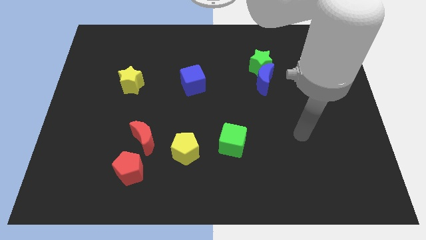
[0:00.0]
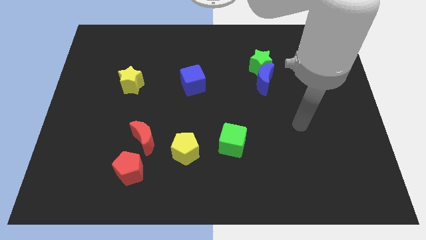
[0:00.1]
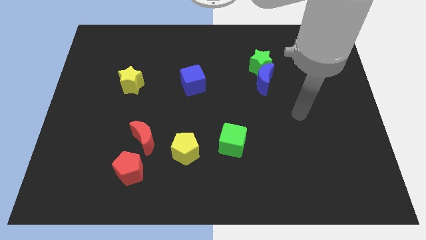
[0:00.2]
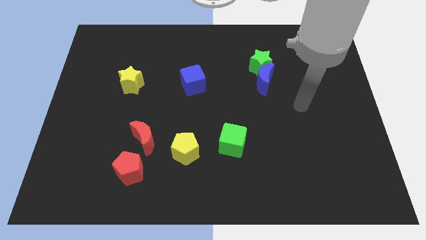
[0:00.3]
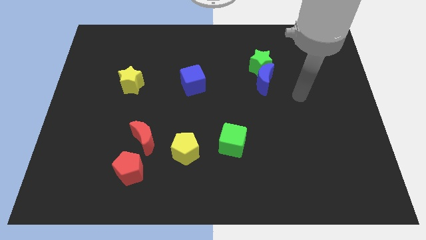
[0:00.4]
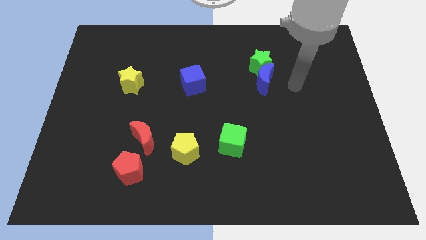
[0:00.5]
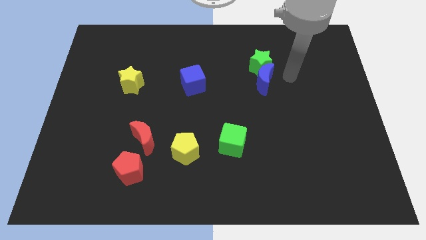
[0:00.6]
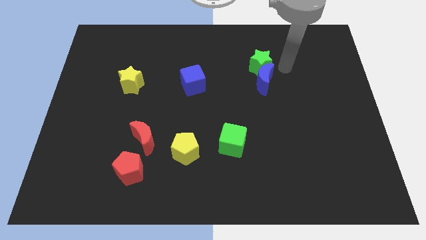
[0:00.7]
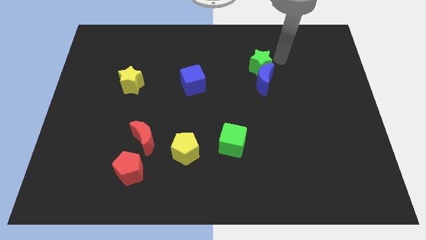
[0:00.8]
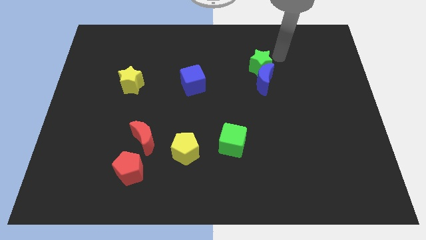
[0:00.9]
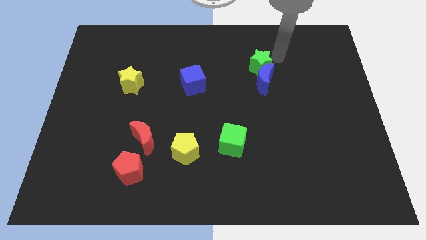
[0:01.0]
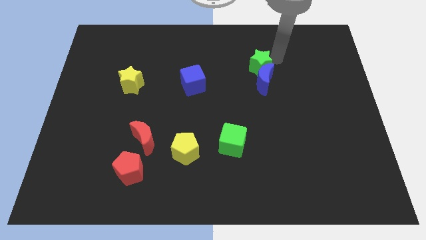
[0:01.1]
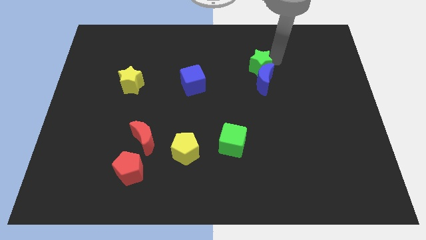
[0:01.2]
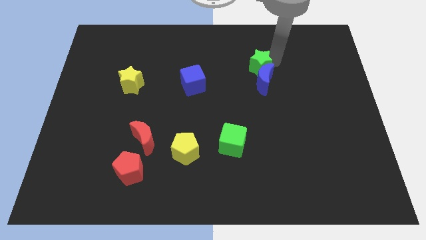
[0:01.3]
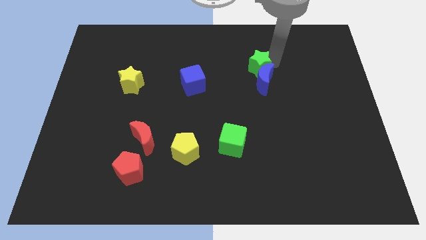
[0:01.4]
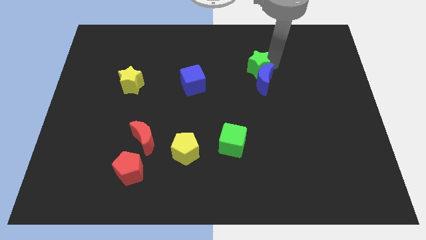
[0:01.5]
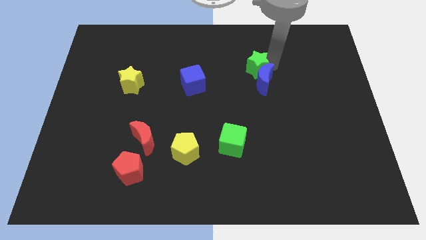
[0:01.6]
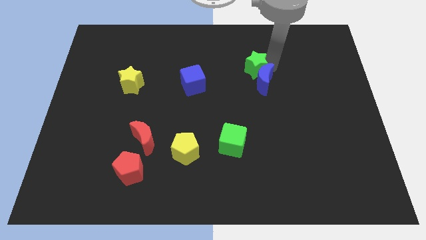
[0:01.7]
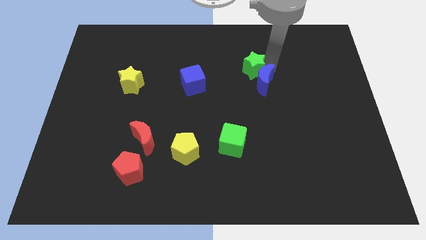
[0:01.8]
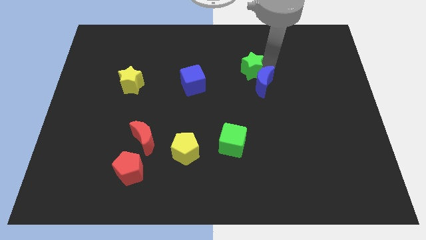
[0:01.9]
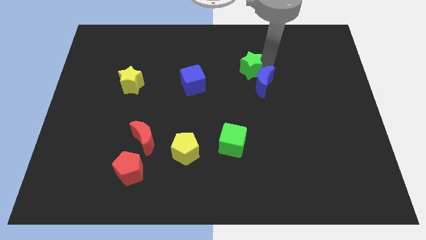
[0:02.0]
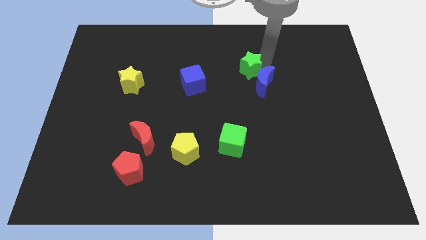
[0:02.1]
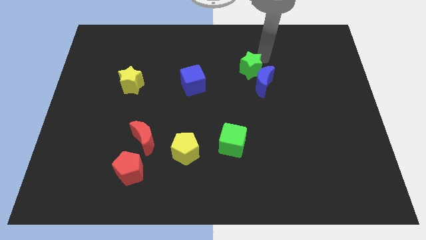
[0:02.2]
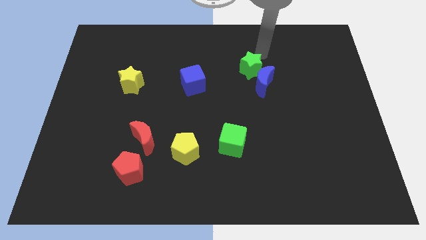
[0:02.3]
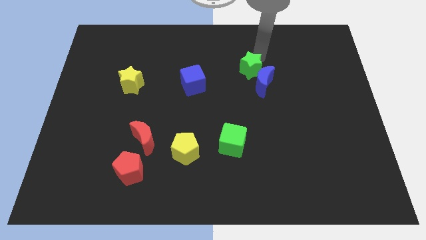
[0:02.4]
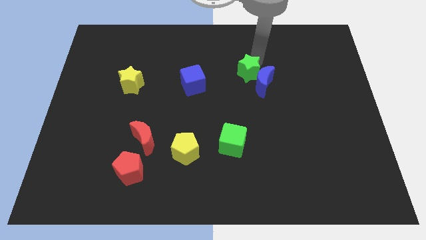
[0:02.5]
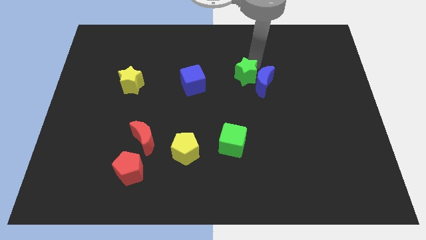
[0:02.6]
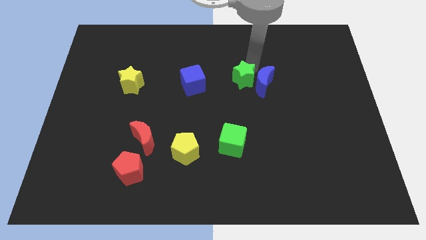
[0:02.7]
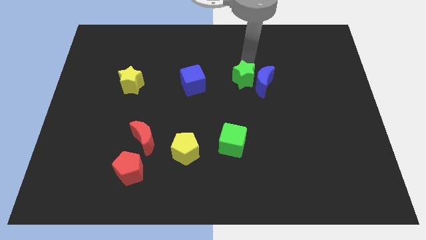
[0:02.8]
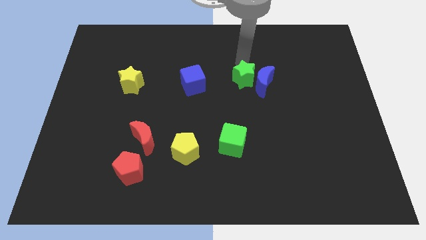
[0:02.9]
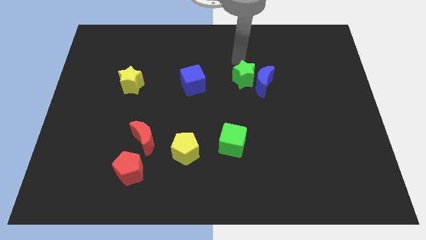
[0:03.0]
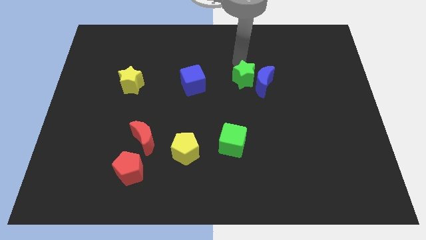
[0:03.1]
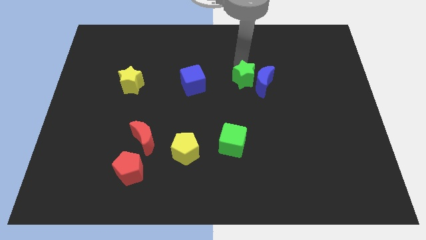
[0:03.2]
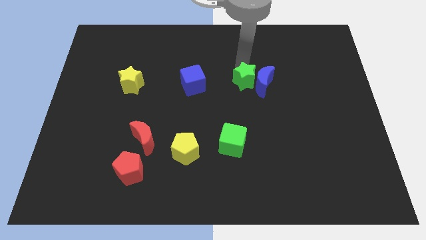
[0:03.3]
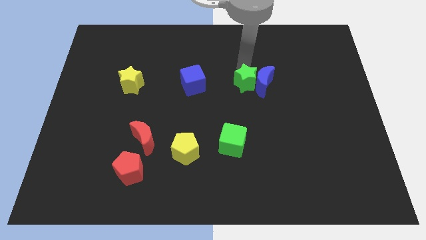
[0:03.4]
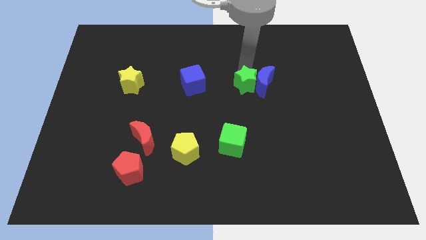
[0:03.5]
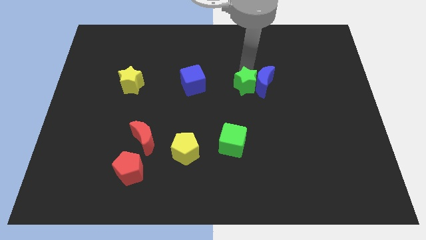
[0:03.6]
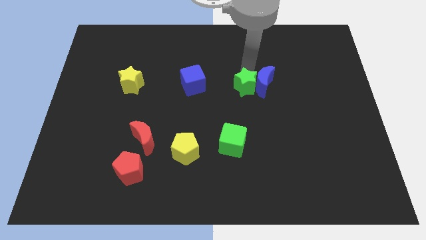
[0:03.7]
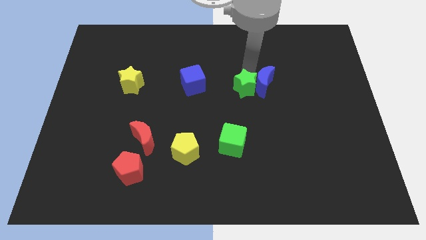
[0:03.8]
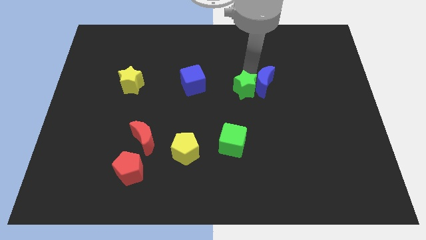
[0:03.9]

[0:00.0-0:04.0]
move the green star a little bit downwards

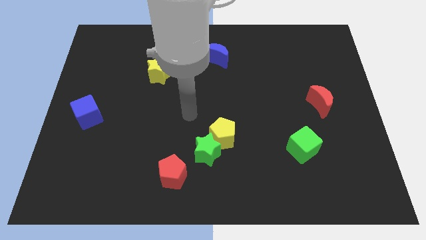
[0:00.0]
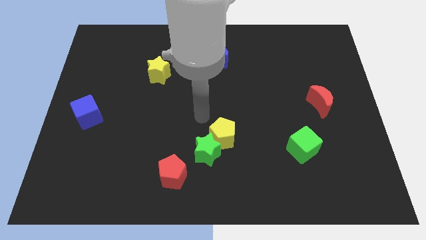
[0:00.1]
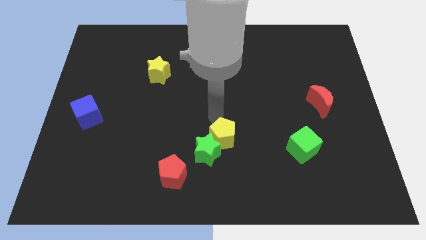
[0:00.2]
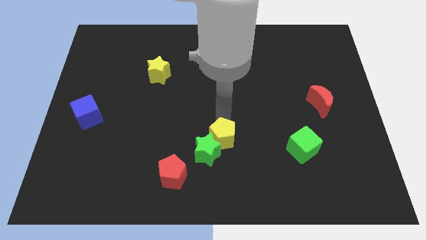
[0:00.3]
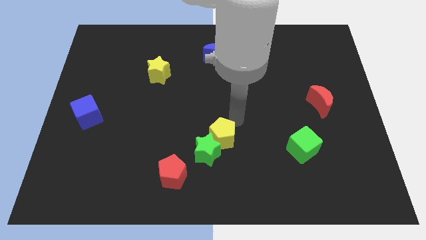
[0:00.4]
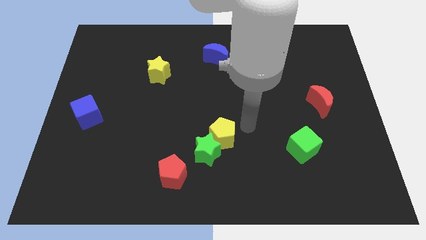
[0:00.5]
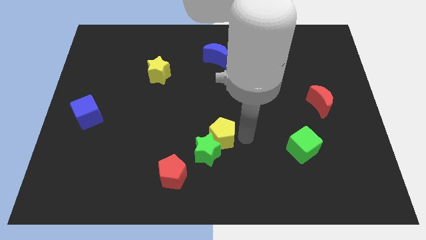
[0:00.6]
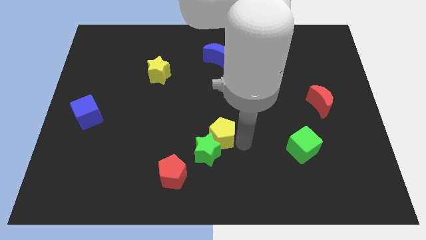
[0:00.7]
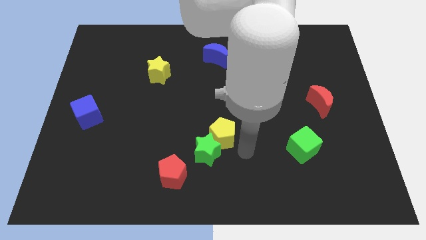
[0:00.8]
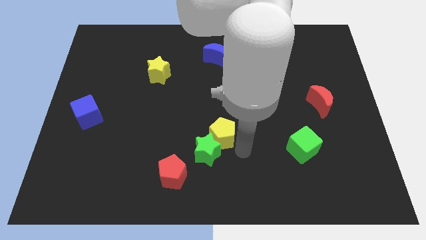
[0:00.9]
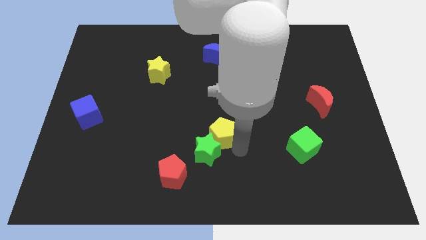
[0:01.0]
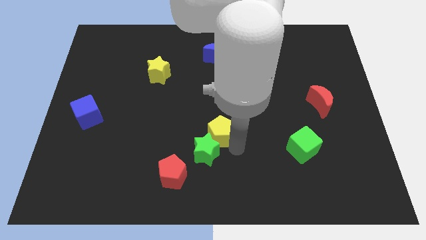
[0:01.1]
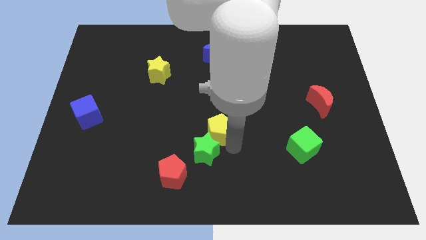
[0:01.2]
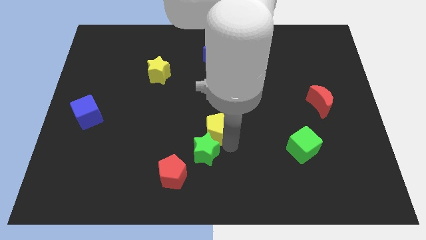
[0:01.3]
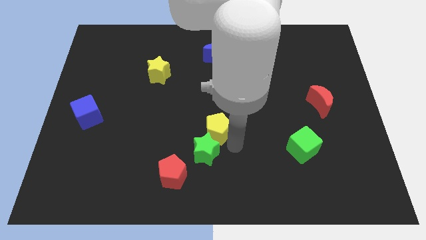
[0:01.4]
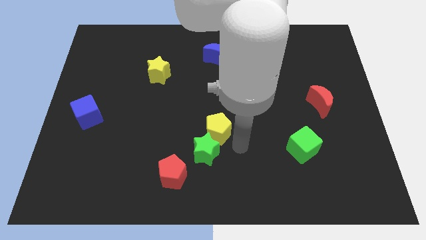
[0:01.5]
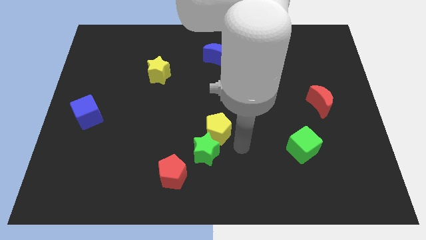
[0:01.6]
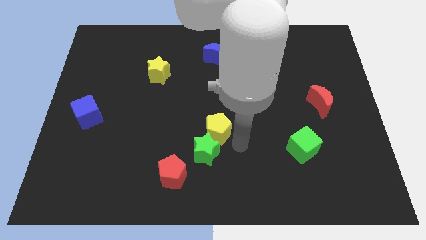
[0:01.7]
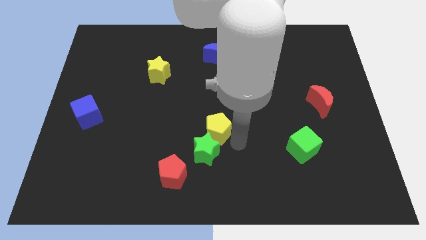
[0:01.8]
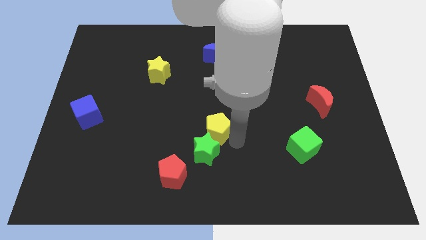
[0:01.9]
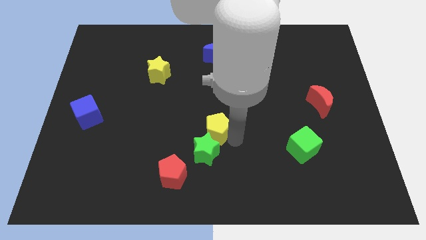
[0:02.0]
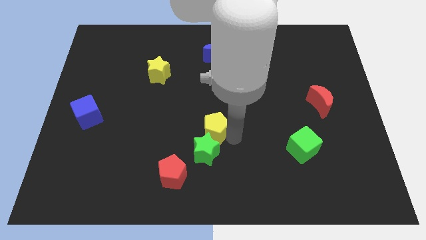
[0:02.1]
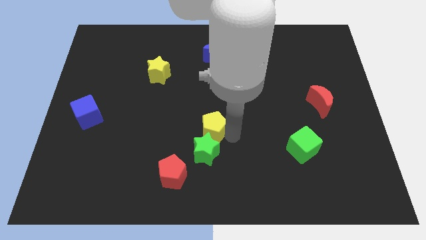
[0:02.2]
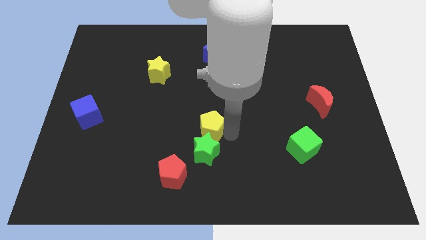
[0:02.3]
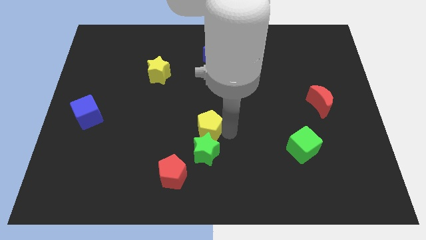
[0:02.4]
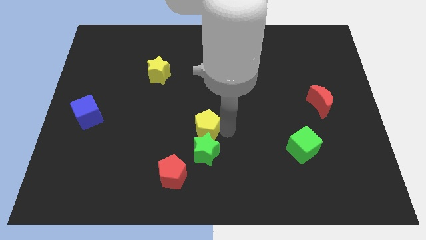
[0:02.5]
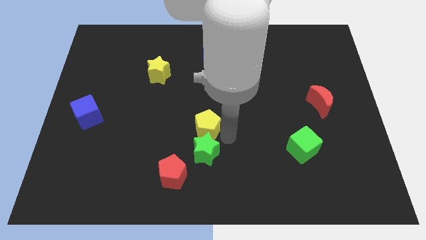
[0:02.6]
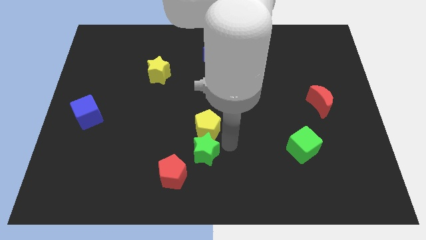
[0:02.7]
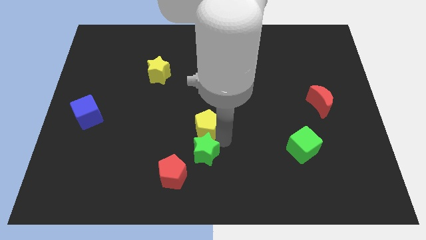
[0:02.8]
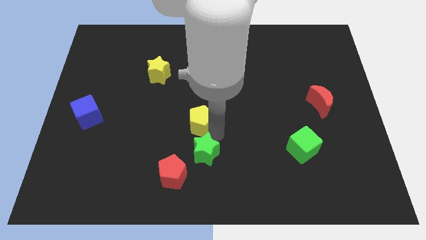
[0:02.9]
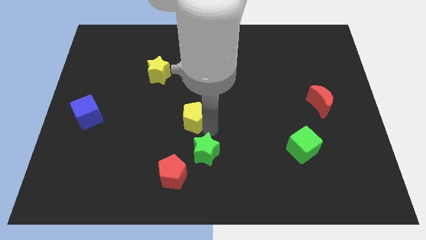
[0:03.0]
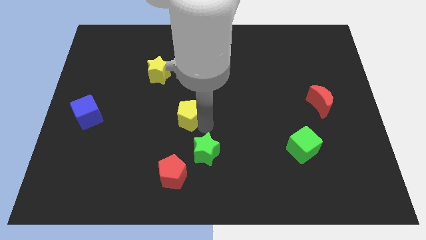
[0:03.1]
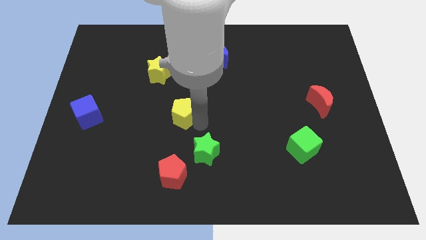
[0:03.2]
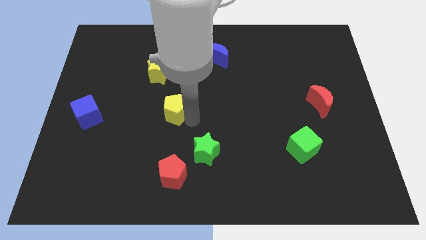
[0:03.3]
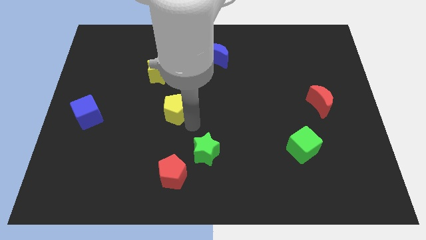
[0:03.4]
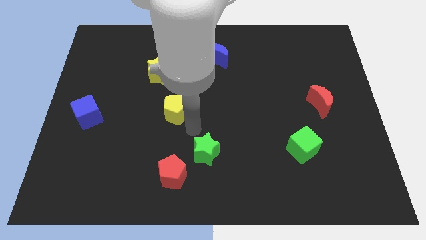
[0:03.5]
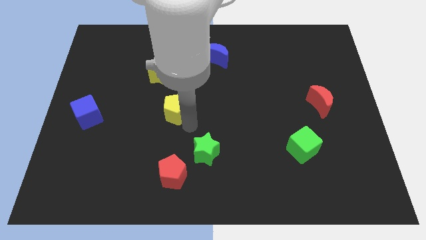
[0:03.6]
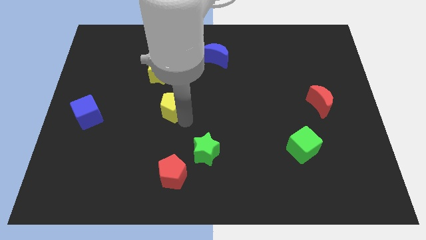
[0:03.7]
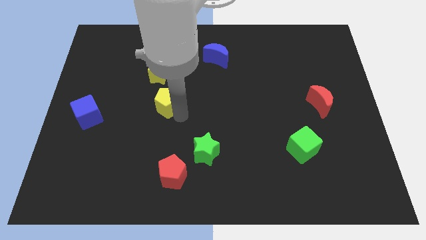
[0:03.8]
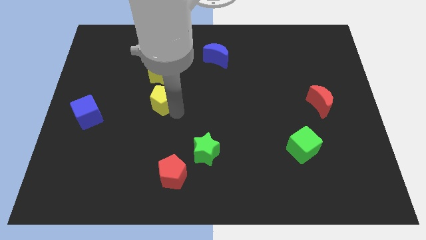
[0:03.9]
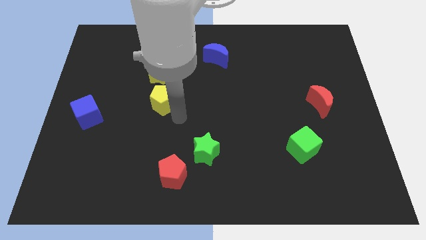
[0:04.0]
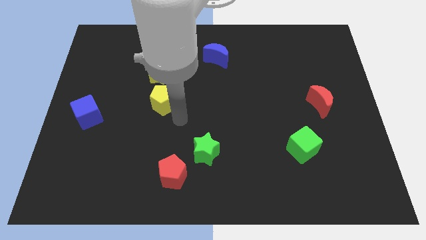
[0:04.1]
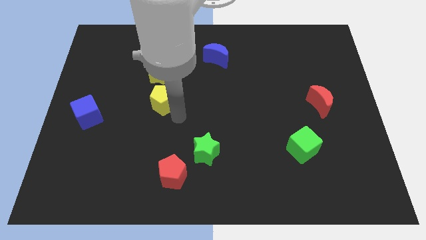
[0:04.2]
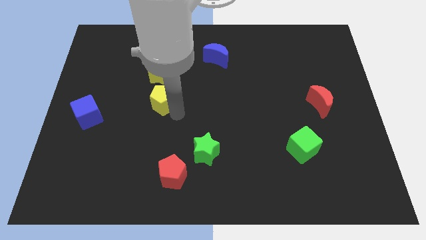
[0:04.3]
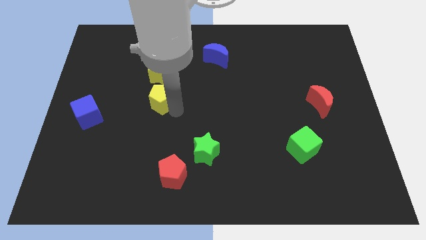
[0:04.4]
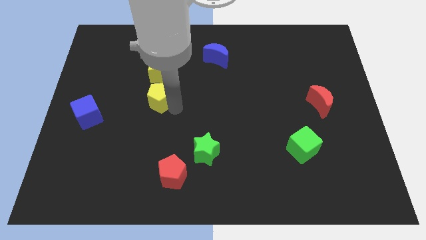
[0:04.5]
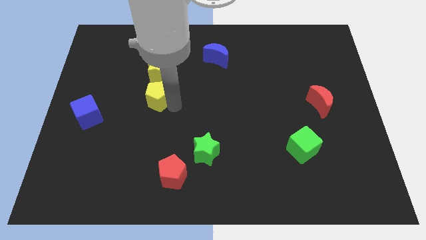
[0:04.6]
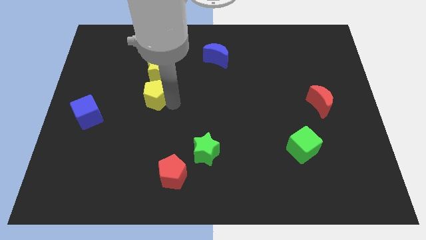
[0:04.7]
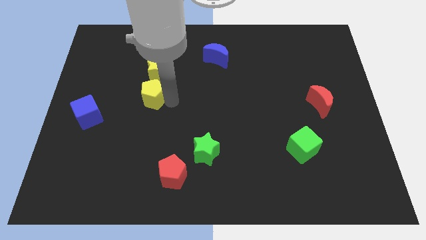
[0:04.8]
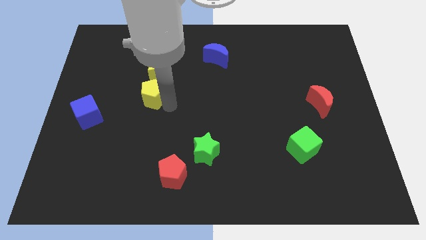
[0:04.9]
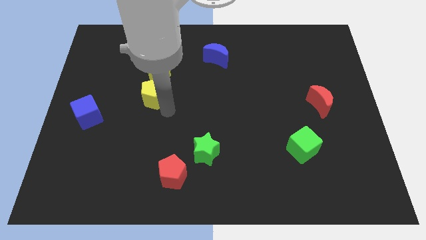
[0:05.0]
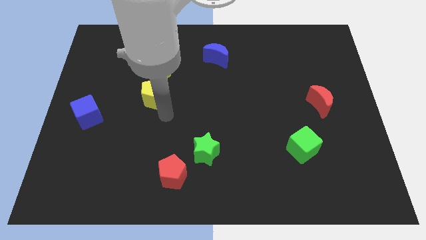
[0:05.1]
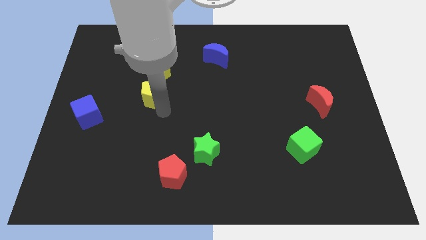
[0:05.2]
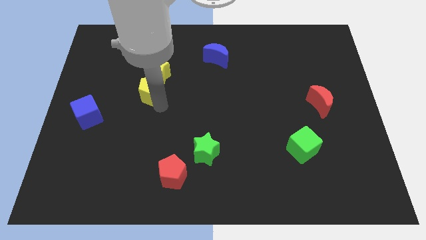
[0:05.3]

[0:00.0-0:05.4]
move the yellow pentagon upwards and then to the left
